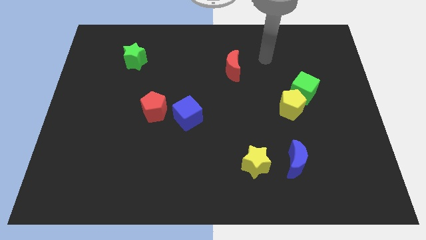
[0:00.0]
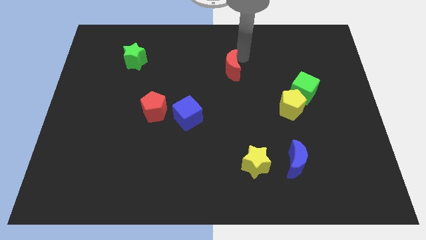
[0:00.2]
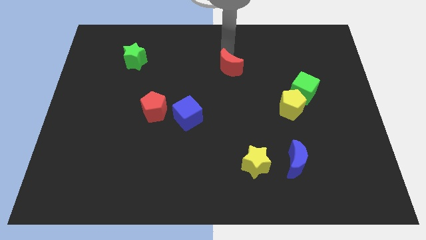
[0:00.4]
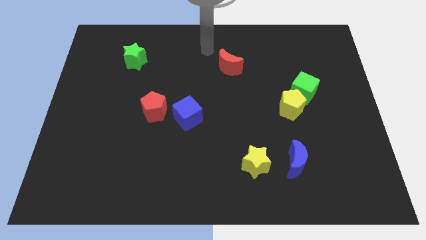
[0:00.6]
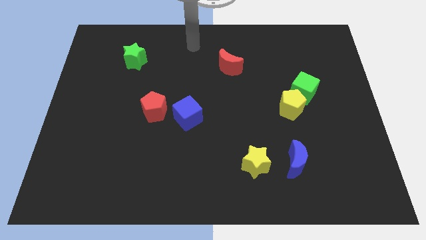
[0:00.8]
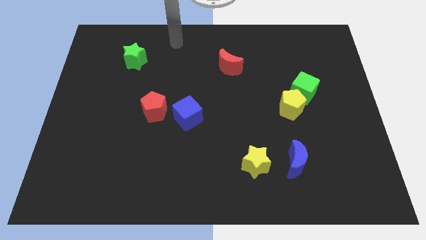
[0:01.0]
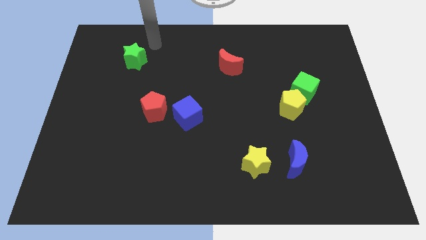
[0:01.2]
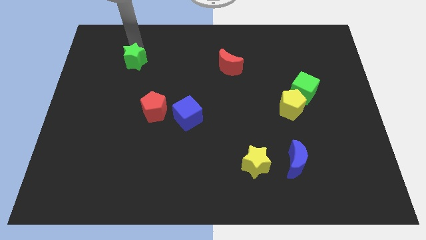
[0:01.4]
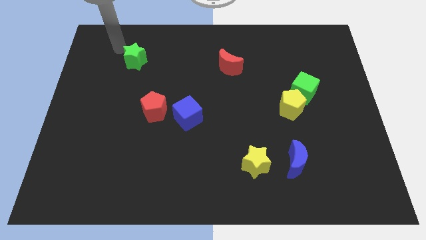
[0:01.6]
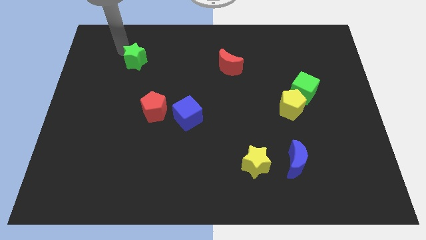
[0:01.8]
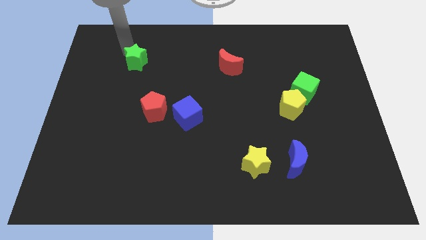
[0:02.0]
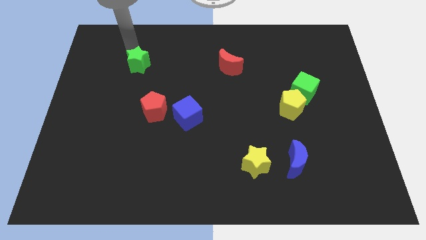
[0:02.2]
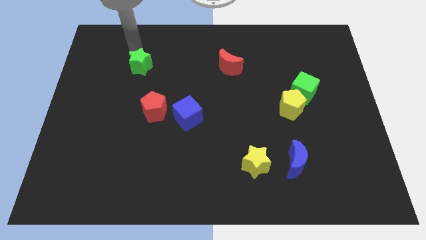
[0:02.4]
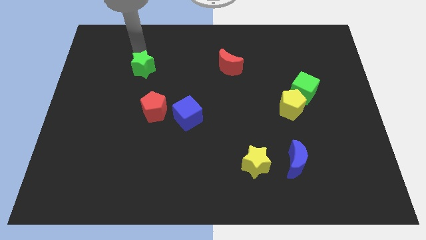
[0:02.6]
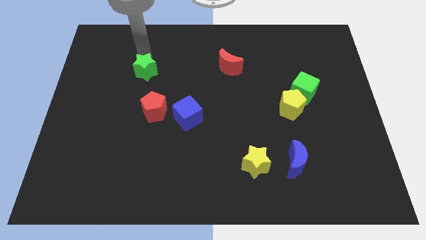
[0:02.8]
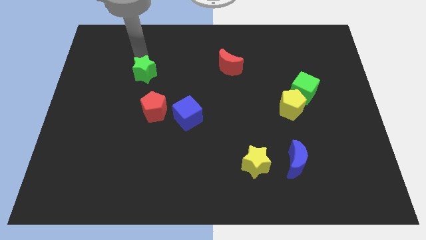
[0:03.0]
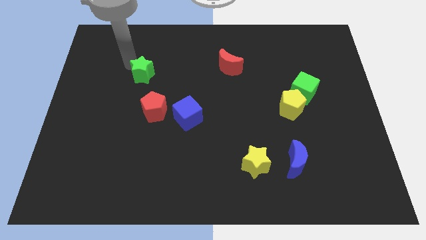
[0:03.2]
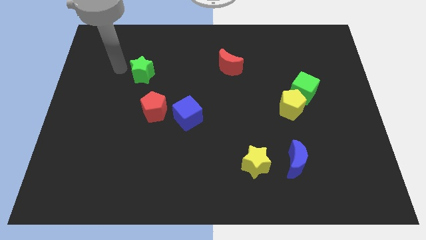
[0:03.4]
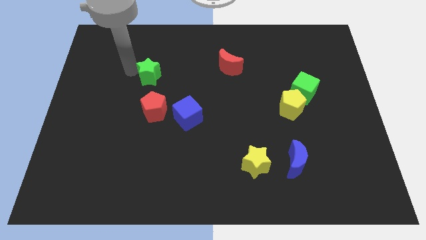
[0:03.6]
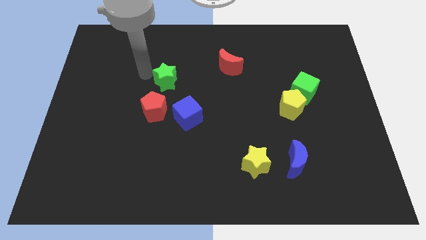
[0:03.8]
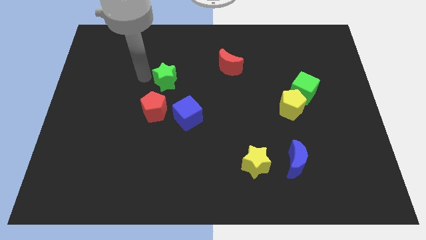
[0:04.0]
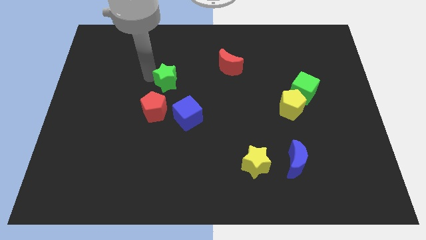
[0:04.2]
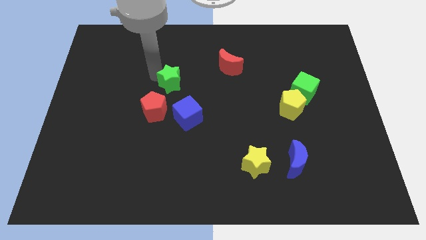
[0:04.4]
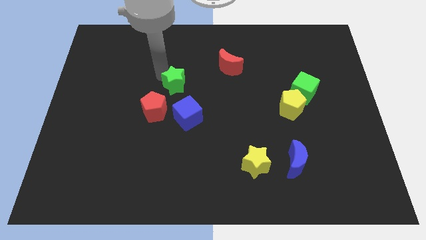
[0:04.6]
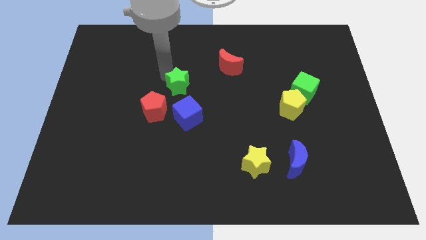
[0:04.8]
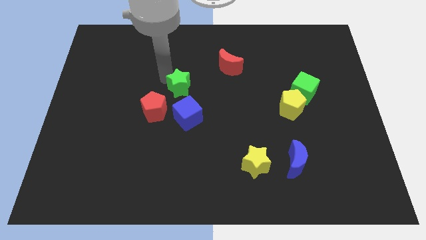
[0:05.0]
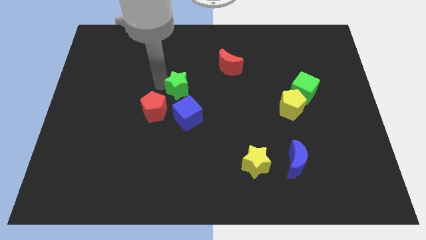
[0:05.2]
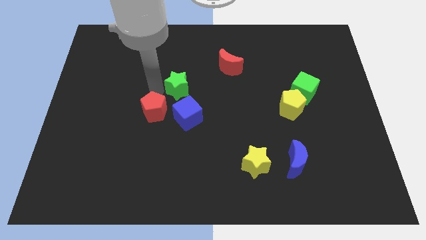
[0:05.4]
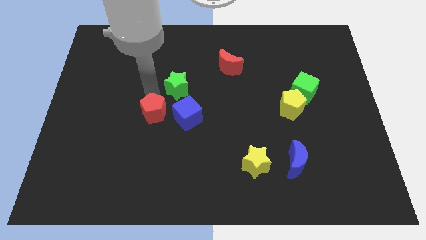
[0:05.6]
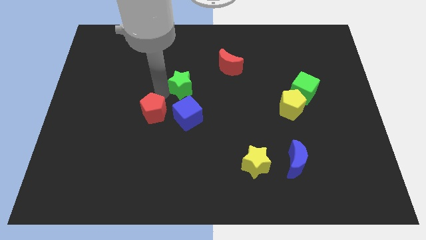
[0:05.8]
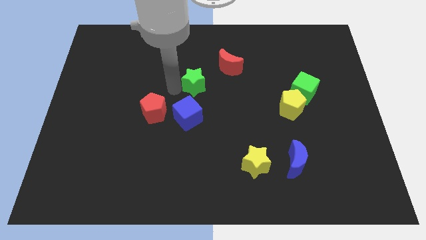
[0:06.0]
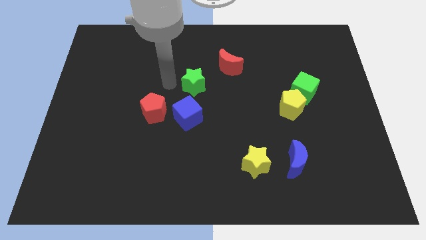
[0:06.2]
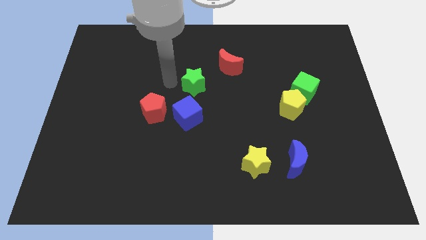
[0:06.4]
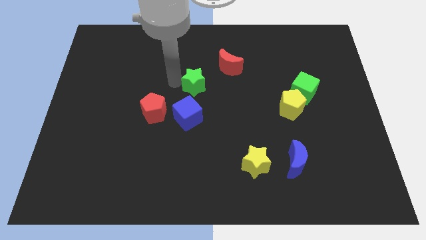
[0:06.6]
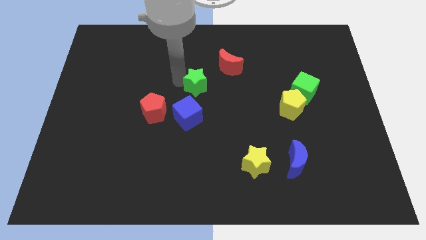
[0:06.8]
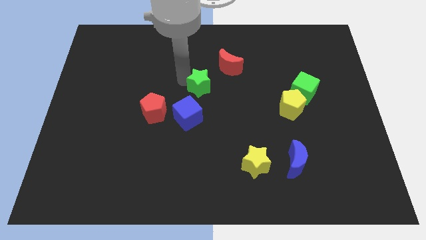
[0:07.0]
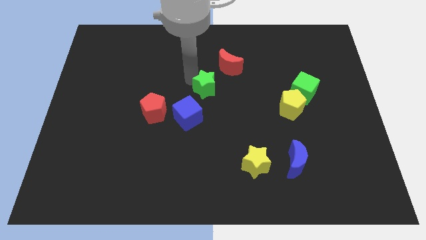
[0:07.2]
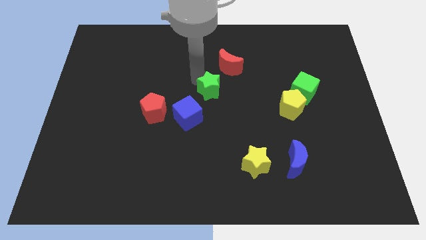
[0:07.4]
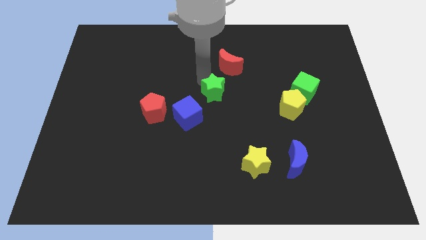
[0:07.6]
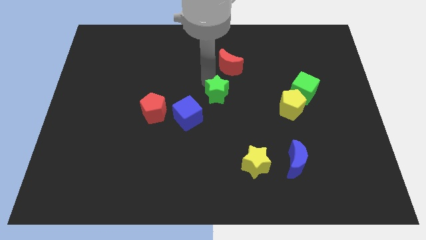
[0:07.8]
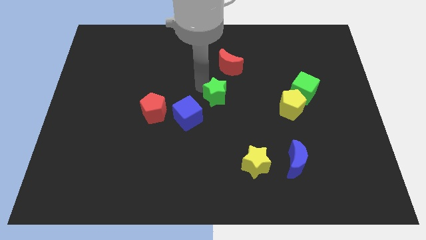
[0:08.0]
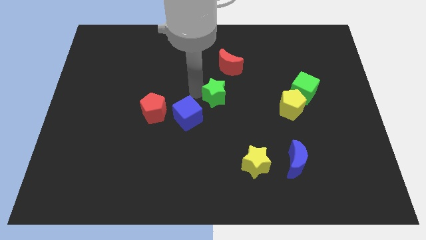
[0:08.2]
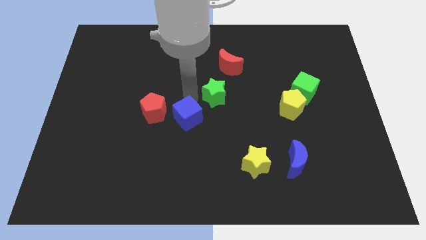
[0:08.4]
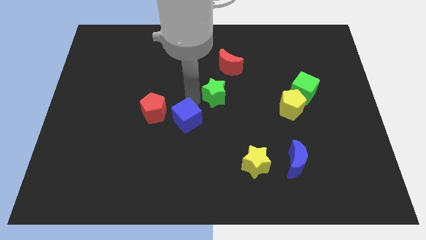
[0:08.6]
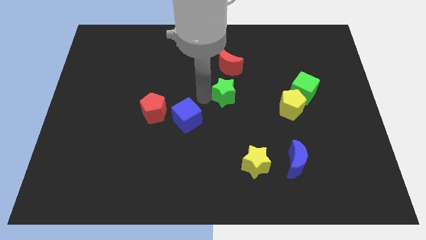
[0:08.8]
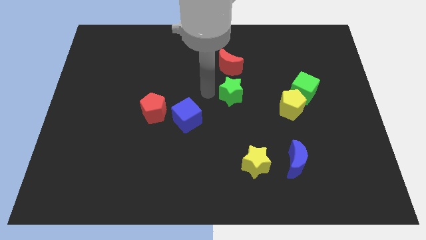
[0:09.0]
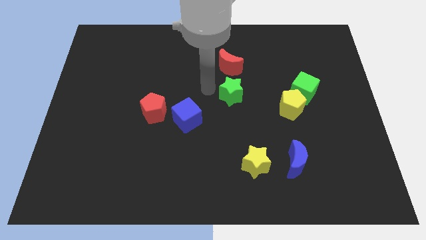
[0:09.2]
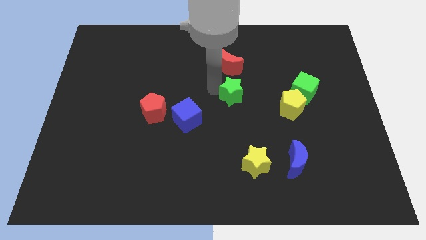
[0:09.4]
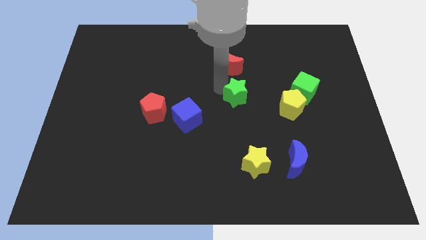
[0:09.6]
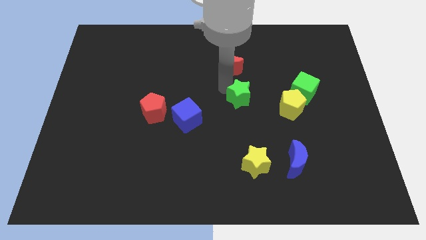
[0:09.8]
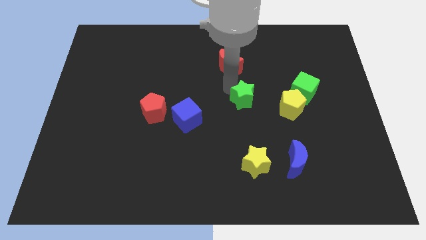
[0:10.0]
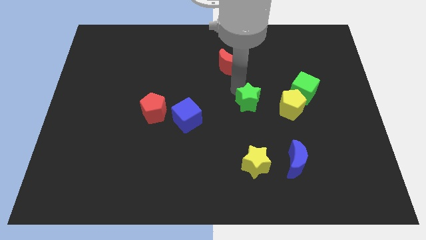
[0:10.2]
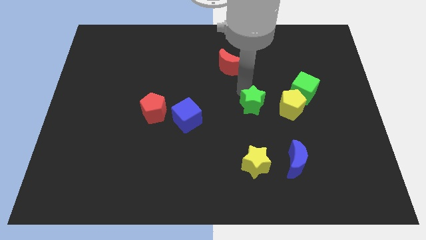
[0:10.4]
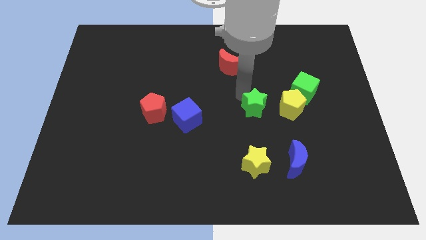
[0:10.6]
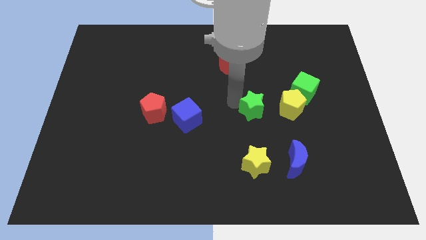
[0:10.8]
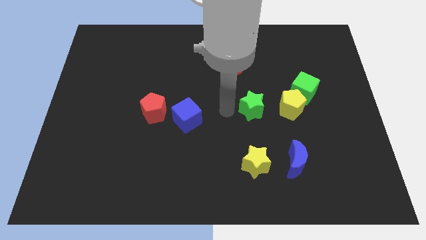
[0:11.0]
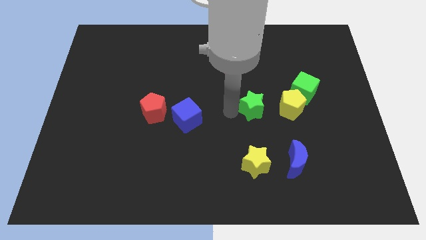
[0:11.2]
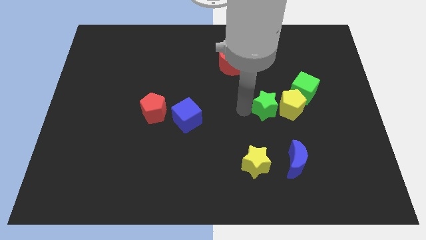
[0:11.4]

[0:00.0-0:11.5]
put the green star next to the yellow pentagon

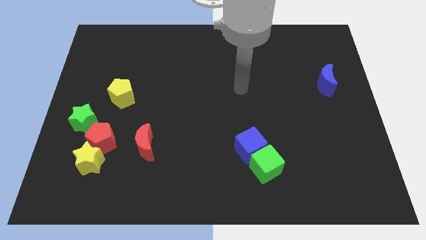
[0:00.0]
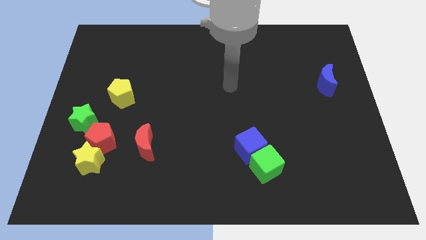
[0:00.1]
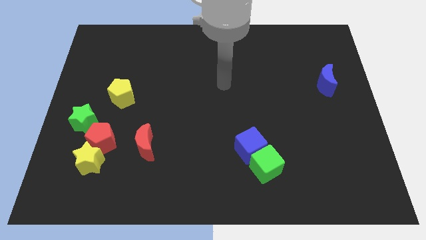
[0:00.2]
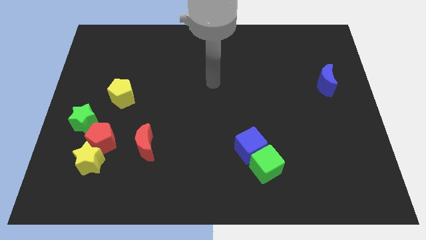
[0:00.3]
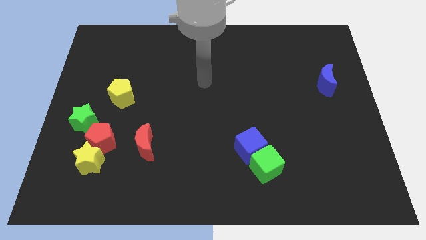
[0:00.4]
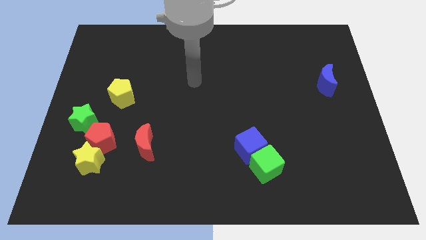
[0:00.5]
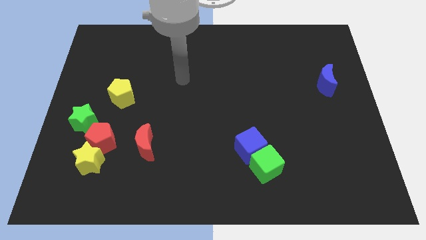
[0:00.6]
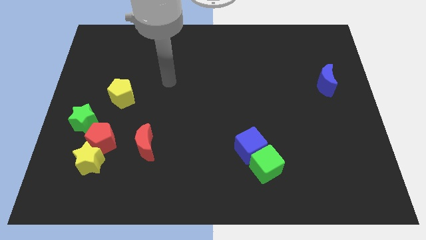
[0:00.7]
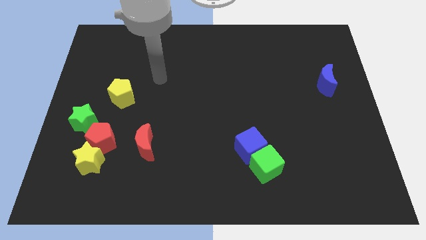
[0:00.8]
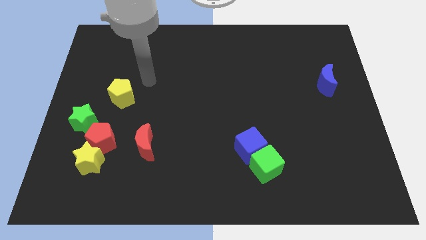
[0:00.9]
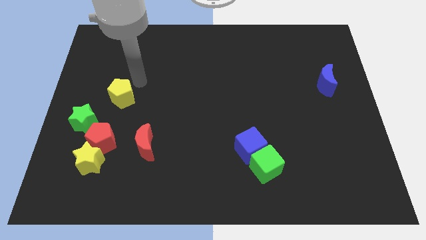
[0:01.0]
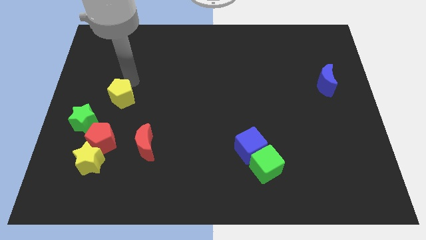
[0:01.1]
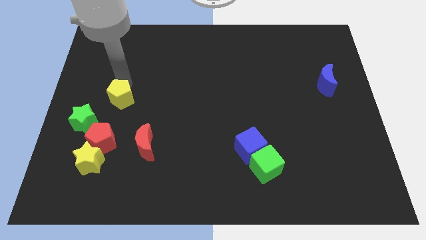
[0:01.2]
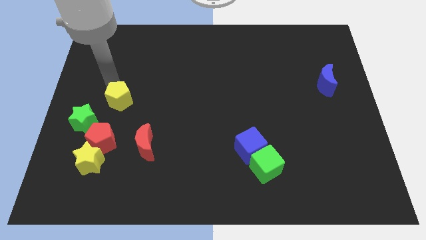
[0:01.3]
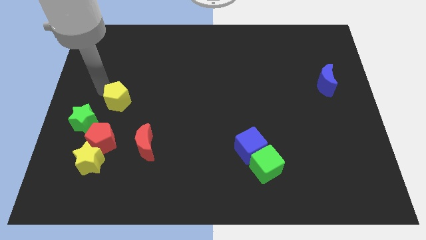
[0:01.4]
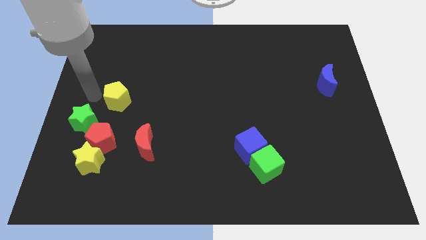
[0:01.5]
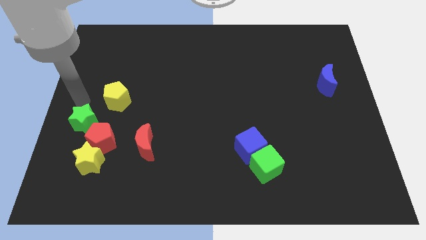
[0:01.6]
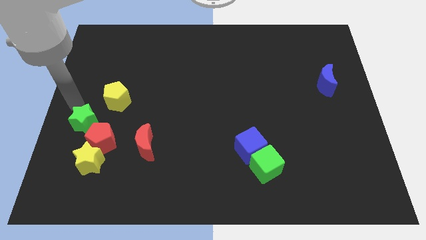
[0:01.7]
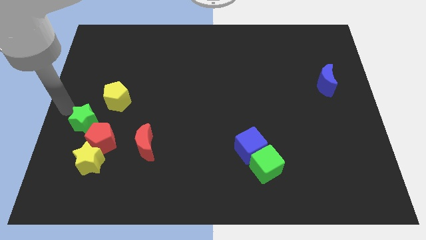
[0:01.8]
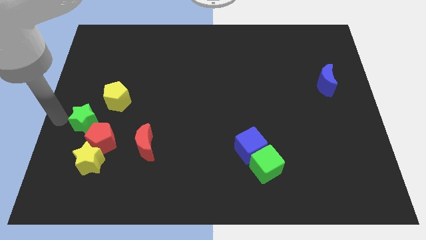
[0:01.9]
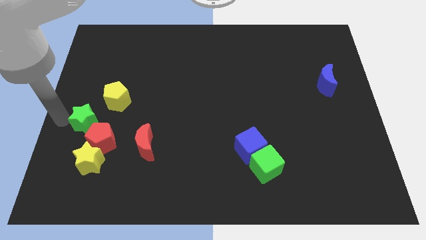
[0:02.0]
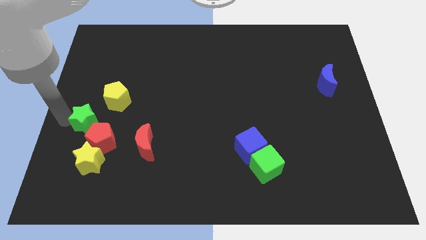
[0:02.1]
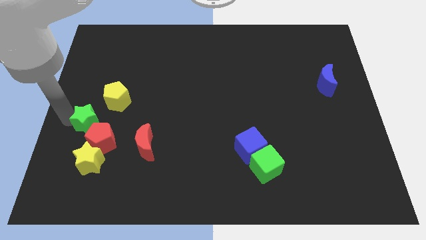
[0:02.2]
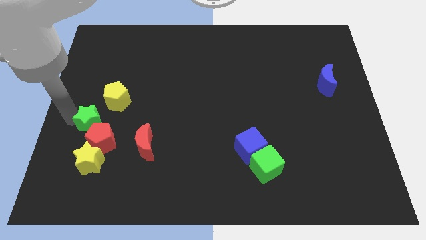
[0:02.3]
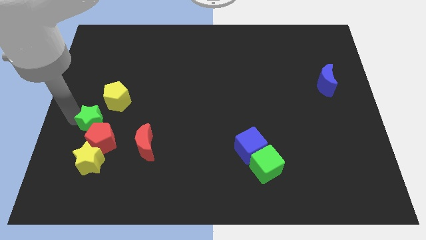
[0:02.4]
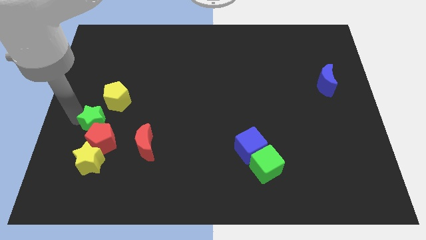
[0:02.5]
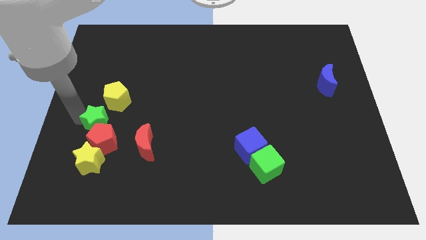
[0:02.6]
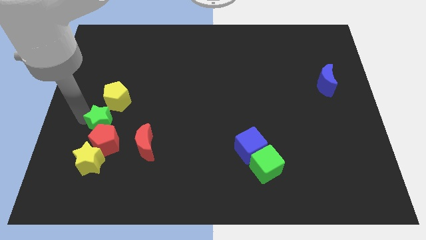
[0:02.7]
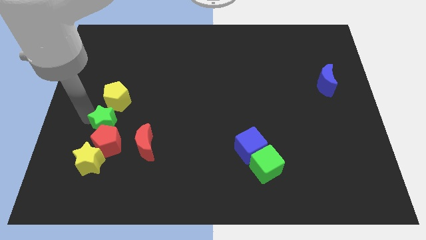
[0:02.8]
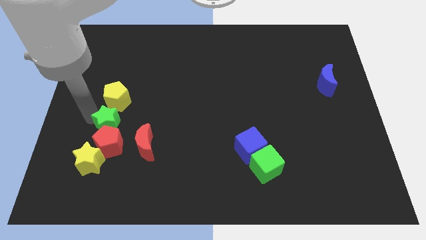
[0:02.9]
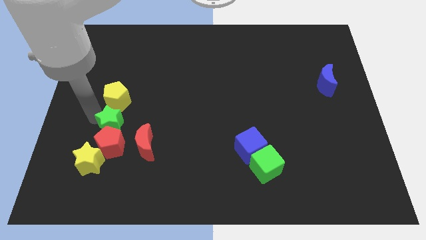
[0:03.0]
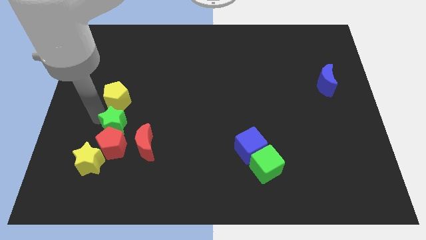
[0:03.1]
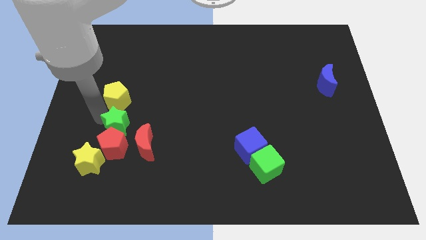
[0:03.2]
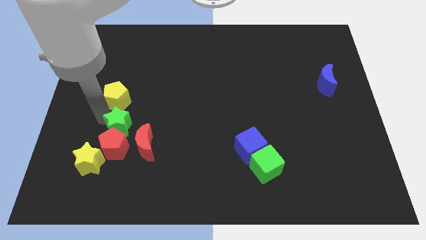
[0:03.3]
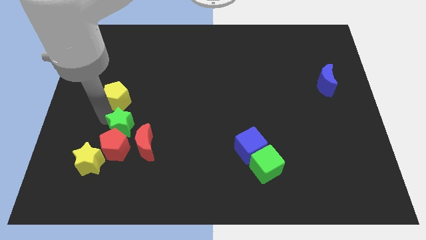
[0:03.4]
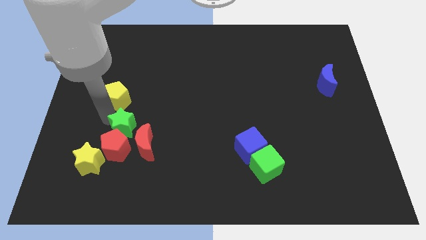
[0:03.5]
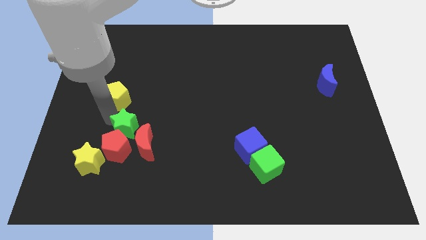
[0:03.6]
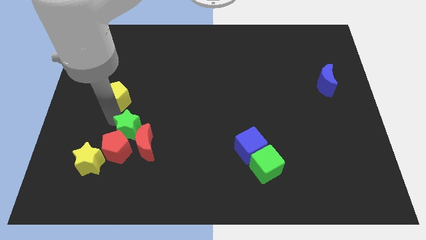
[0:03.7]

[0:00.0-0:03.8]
move the green star next to the red moon
